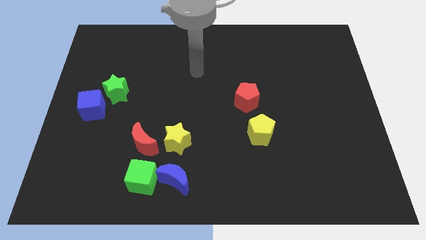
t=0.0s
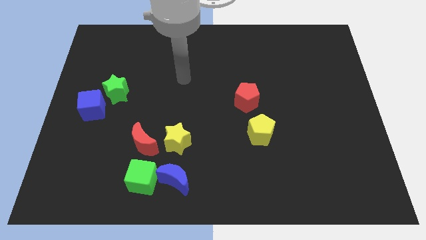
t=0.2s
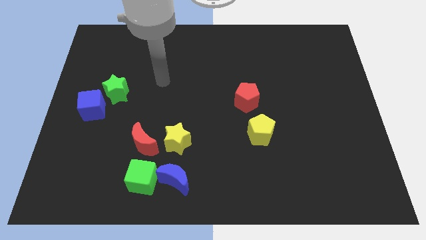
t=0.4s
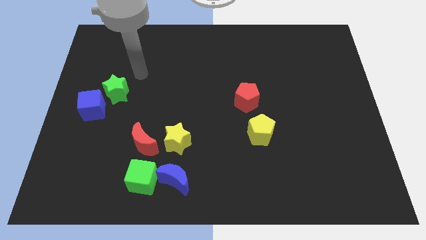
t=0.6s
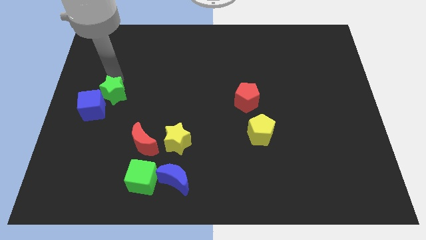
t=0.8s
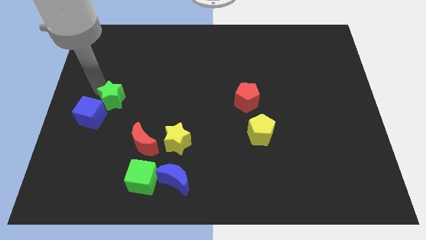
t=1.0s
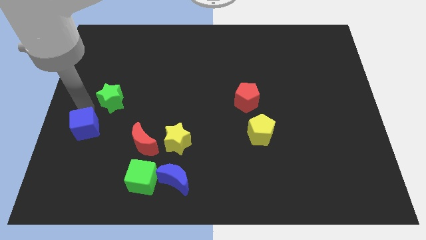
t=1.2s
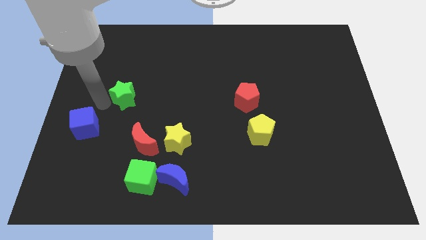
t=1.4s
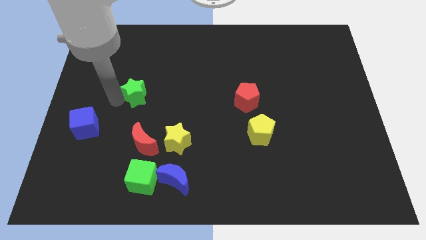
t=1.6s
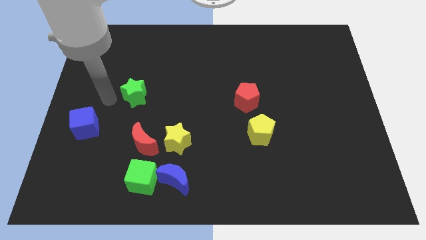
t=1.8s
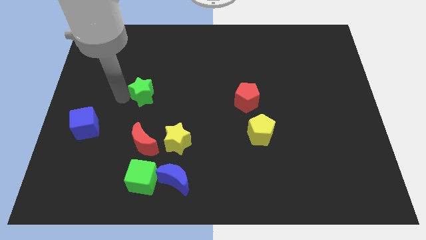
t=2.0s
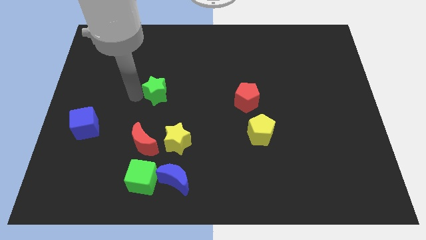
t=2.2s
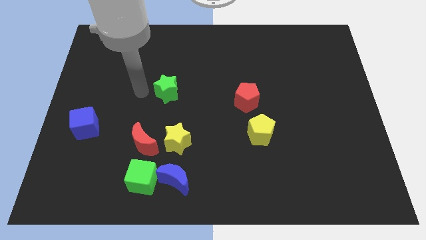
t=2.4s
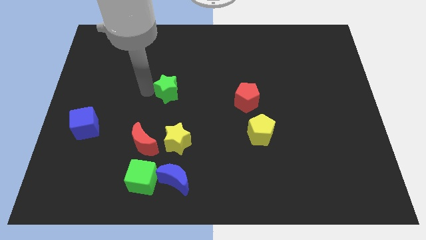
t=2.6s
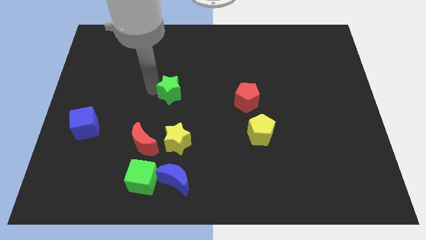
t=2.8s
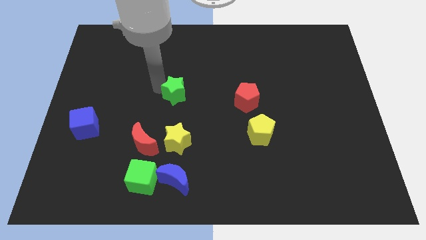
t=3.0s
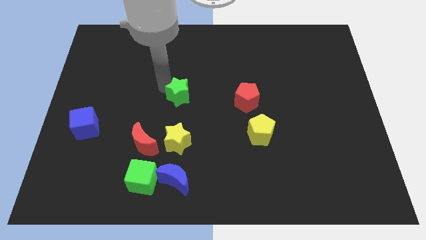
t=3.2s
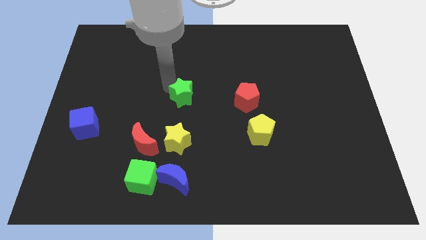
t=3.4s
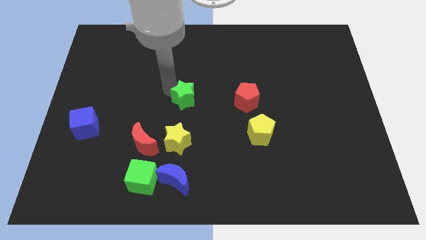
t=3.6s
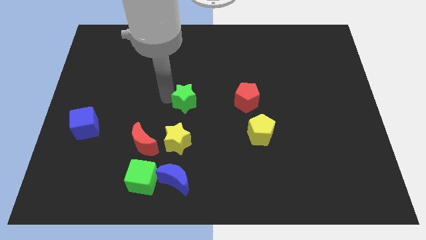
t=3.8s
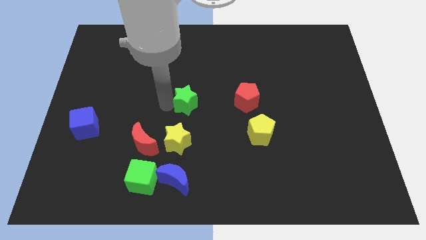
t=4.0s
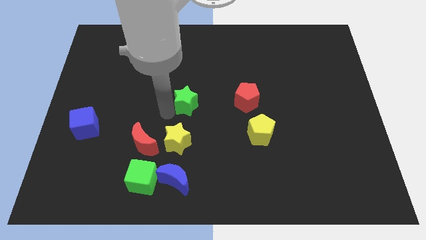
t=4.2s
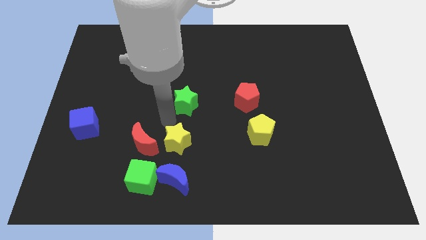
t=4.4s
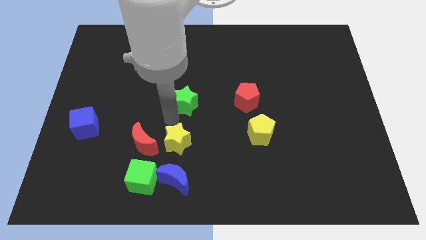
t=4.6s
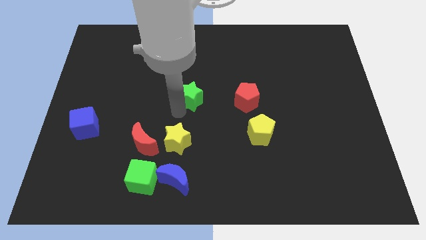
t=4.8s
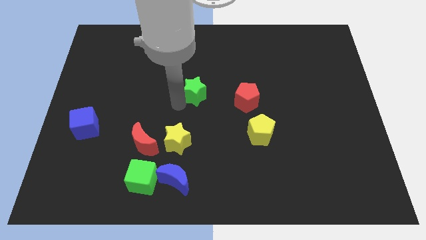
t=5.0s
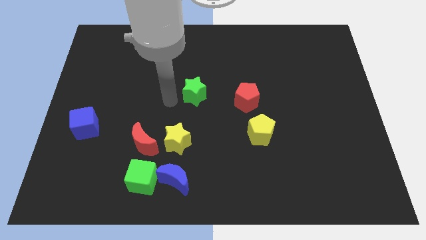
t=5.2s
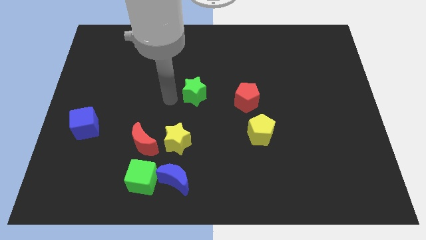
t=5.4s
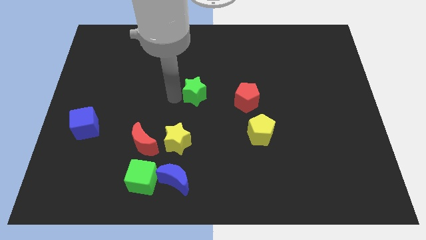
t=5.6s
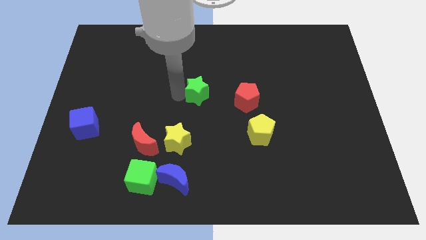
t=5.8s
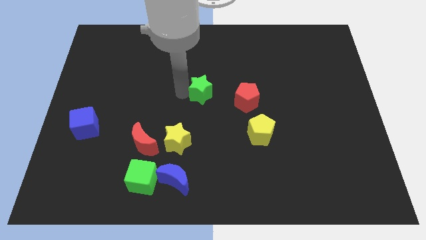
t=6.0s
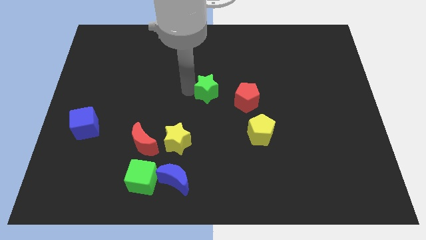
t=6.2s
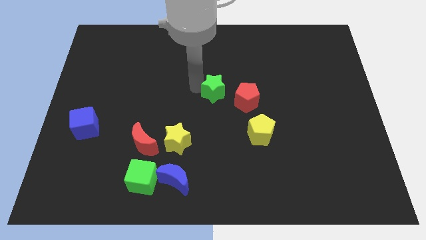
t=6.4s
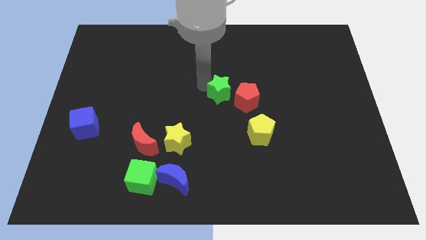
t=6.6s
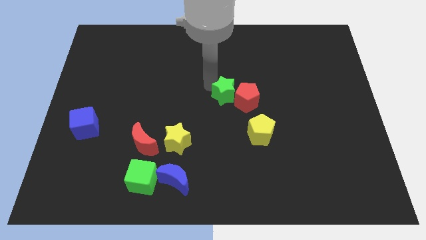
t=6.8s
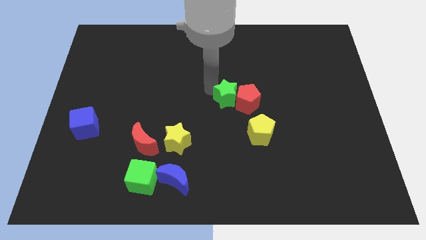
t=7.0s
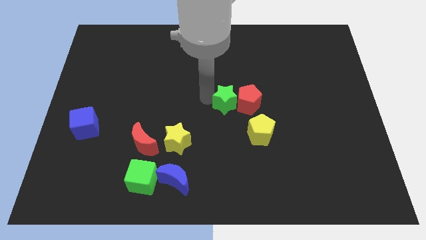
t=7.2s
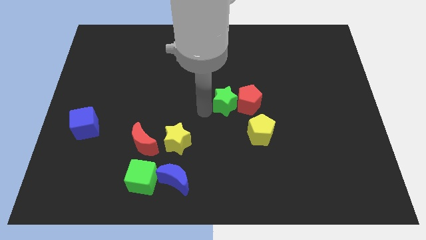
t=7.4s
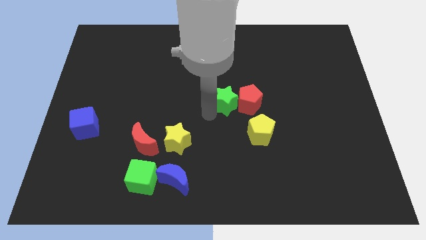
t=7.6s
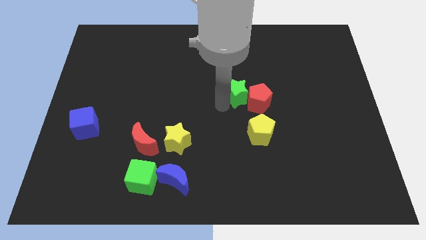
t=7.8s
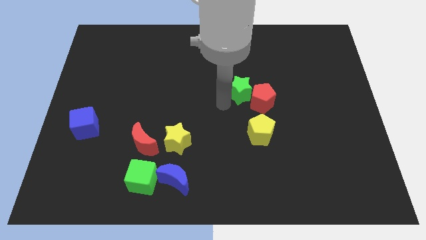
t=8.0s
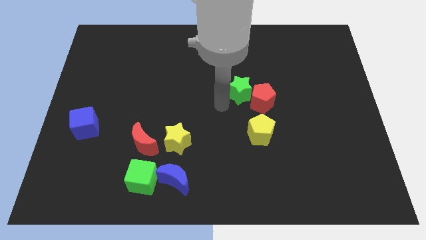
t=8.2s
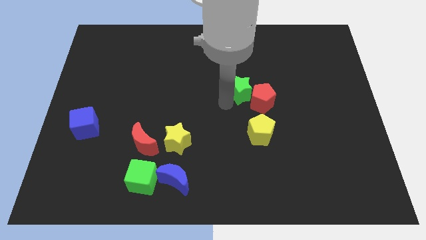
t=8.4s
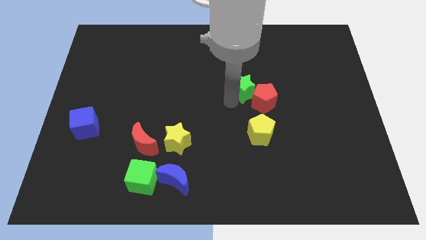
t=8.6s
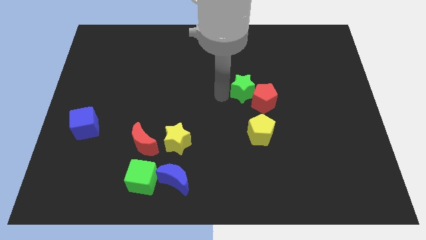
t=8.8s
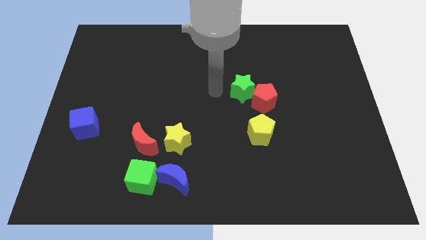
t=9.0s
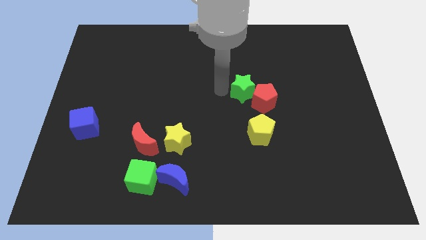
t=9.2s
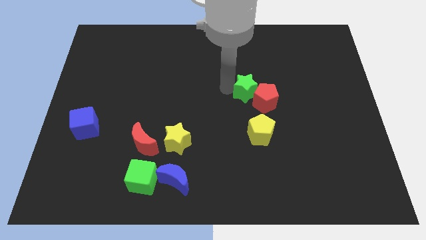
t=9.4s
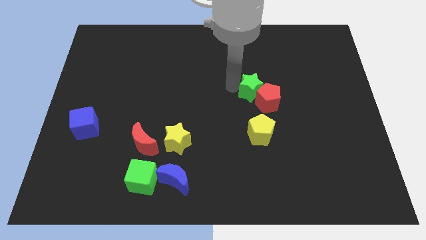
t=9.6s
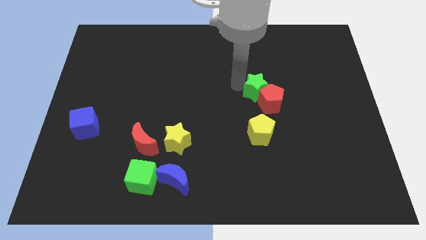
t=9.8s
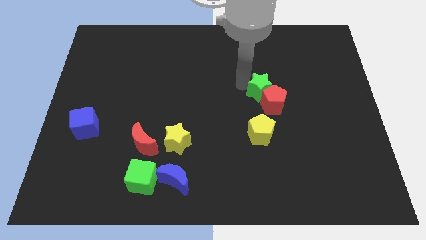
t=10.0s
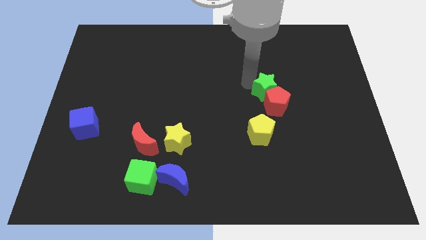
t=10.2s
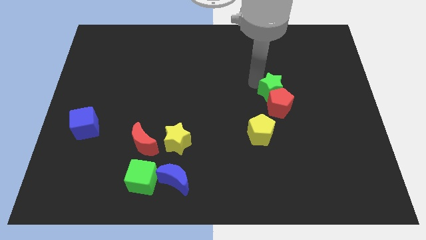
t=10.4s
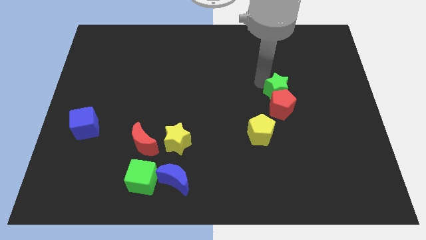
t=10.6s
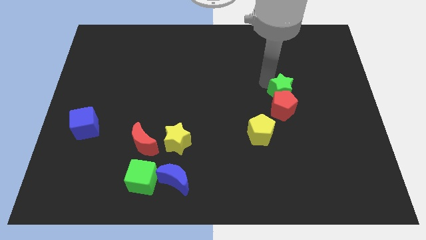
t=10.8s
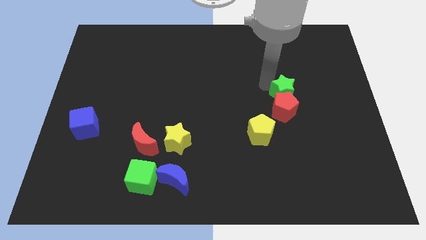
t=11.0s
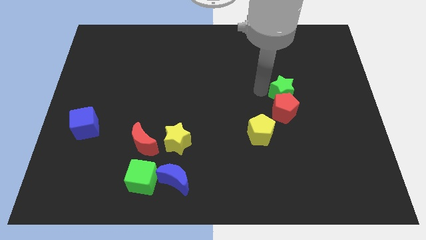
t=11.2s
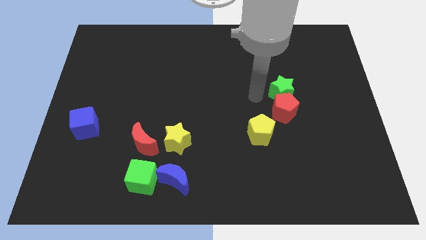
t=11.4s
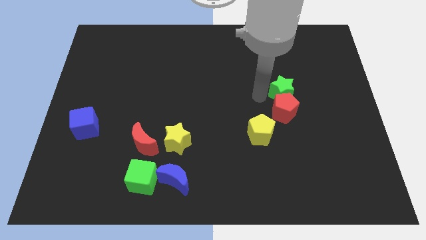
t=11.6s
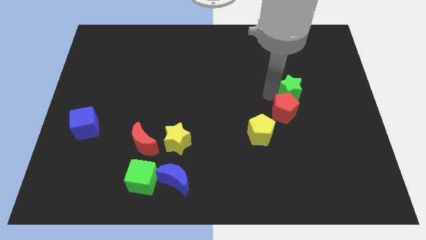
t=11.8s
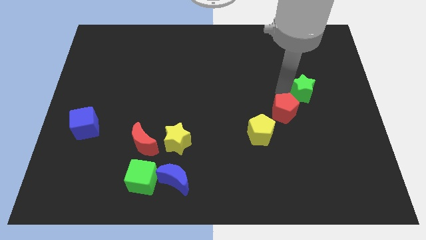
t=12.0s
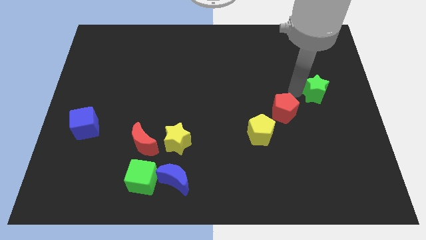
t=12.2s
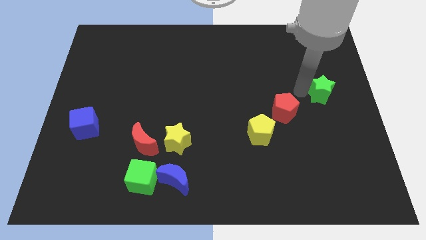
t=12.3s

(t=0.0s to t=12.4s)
move the green star to the right side of the board
